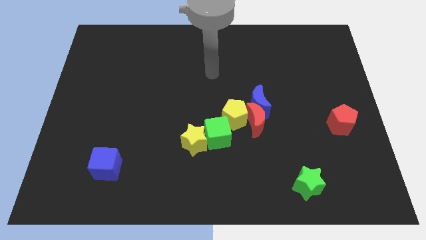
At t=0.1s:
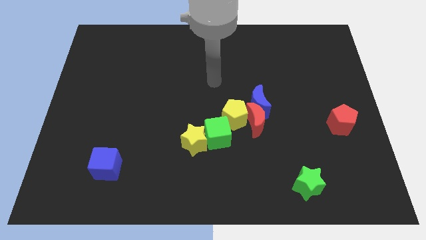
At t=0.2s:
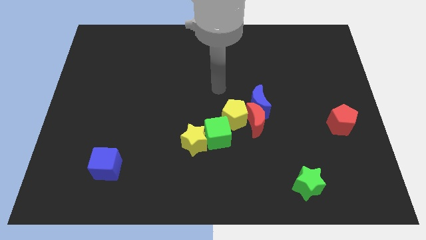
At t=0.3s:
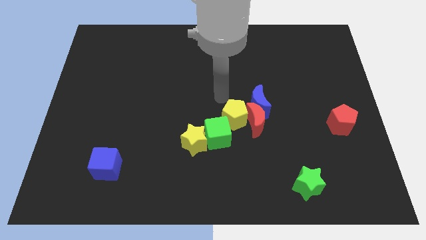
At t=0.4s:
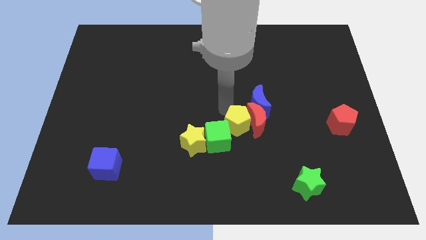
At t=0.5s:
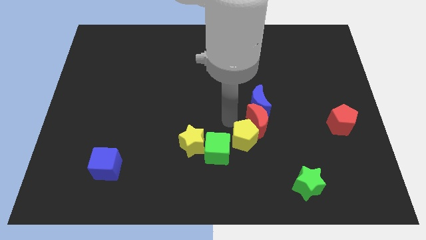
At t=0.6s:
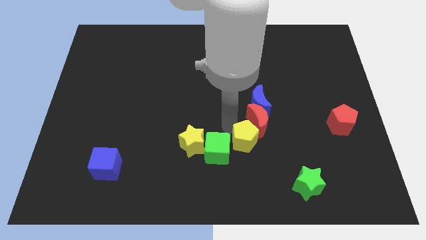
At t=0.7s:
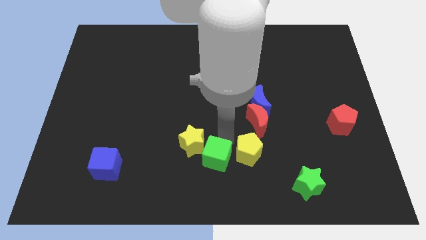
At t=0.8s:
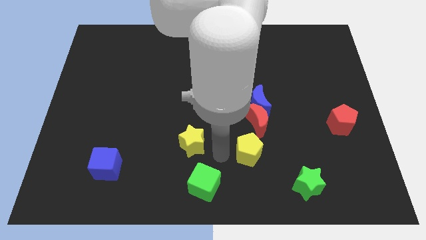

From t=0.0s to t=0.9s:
separate the yellow star from the green cube

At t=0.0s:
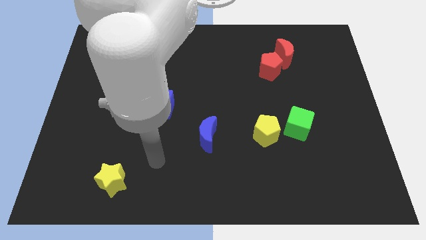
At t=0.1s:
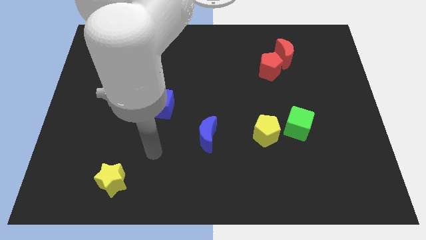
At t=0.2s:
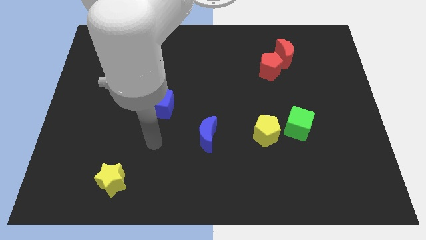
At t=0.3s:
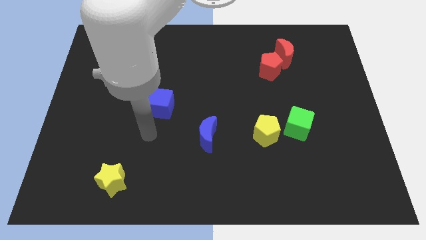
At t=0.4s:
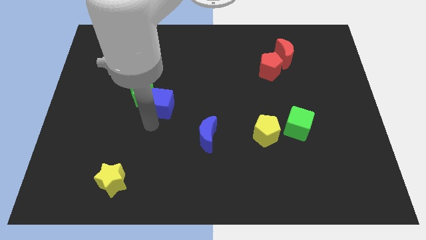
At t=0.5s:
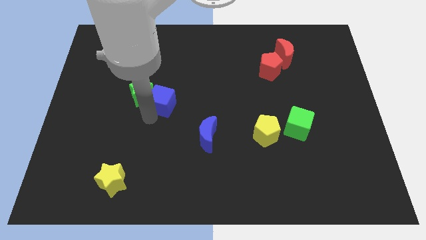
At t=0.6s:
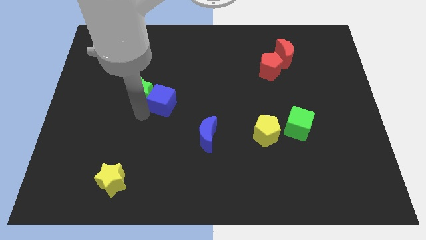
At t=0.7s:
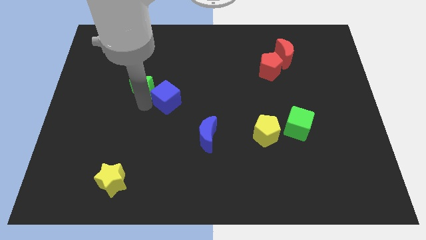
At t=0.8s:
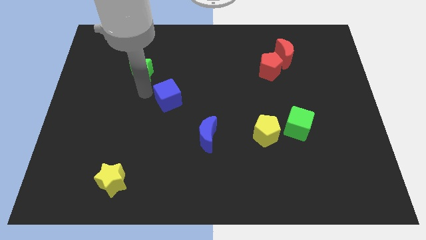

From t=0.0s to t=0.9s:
pull the blue cube apart from the green star

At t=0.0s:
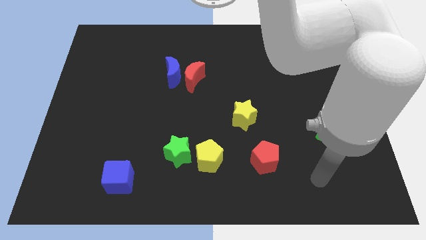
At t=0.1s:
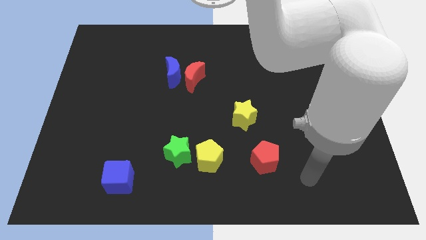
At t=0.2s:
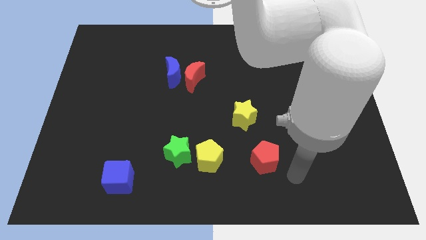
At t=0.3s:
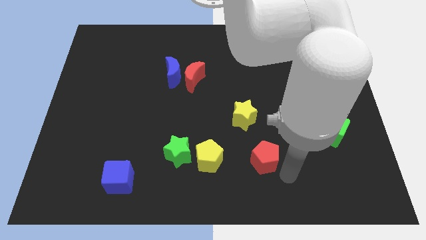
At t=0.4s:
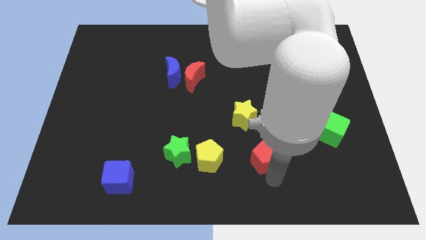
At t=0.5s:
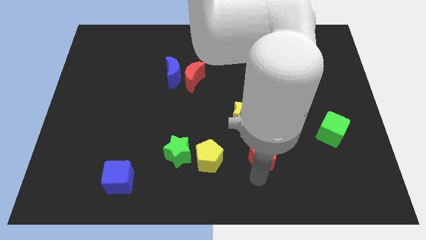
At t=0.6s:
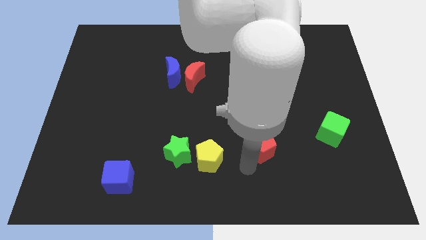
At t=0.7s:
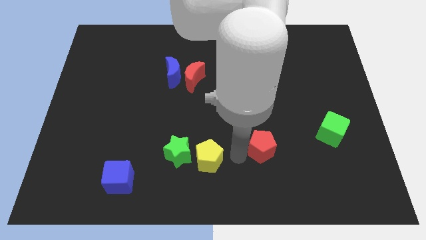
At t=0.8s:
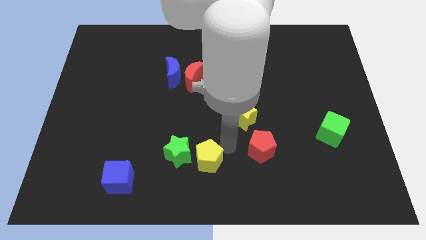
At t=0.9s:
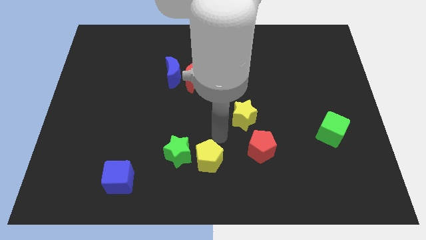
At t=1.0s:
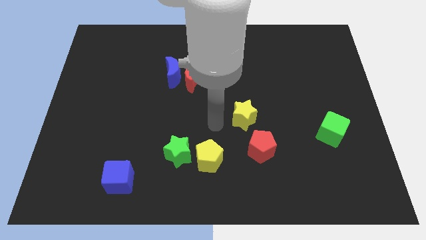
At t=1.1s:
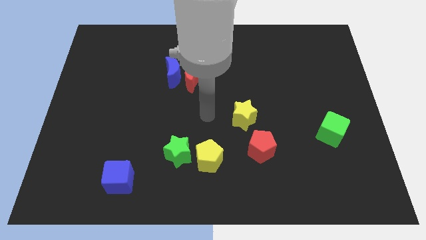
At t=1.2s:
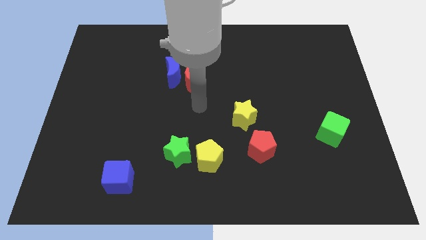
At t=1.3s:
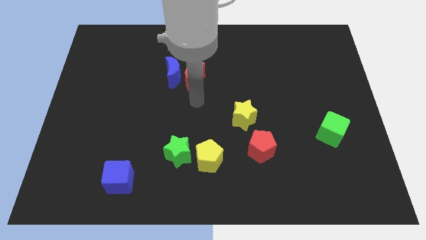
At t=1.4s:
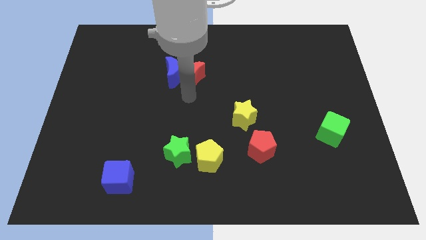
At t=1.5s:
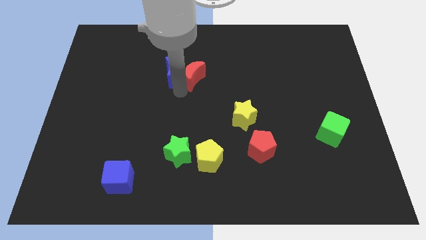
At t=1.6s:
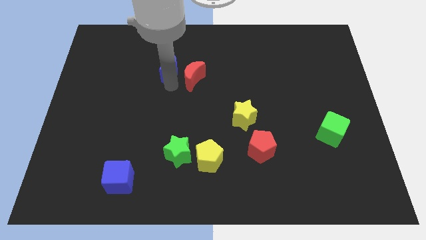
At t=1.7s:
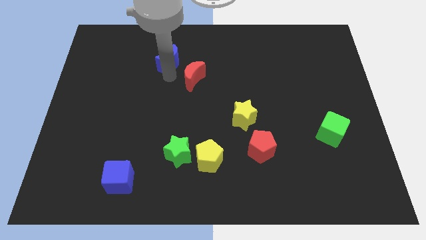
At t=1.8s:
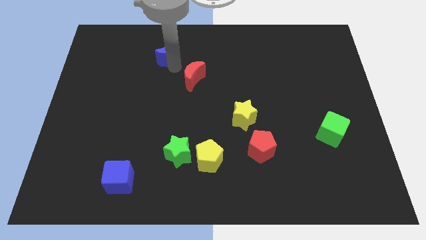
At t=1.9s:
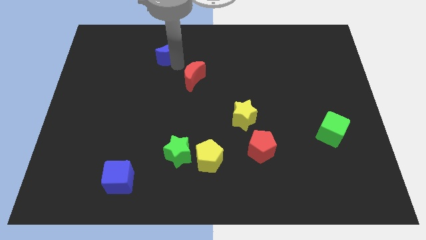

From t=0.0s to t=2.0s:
separate the red moon from the blue moon

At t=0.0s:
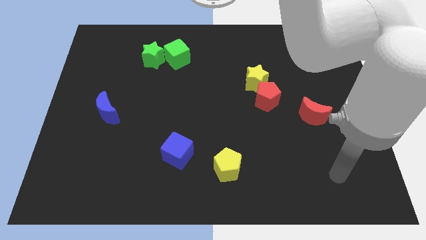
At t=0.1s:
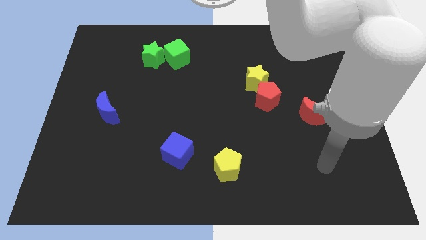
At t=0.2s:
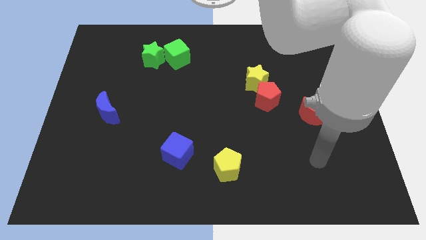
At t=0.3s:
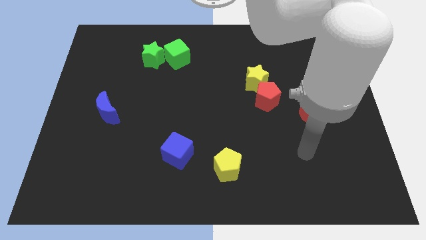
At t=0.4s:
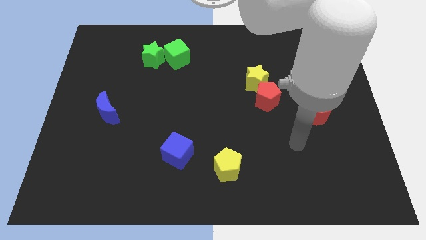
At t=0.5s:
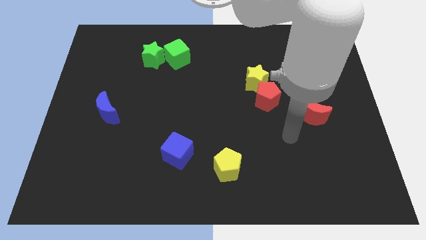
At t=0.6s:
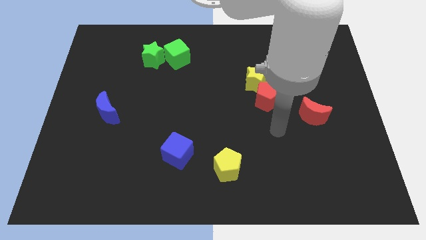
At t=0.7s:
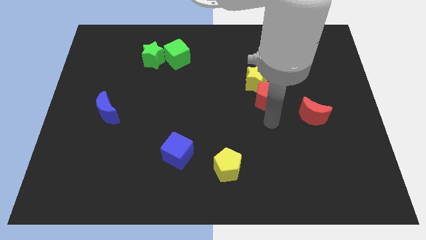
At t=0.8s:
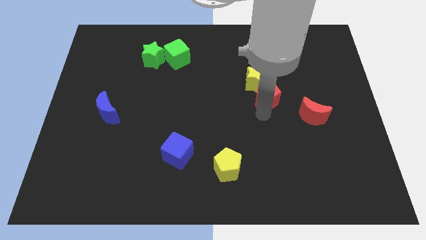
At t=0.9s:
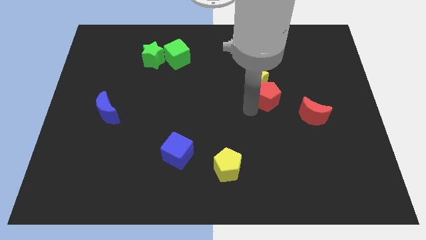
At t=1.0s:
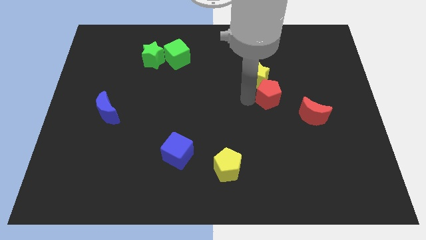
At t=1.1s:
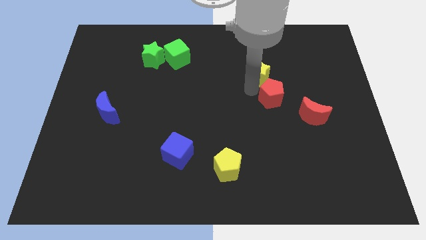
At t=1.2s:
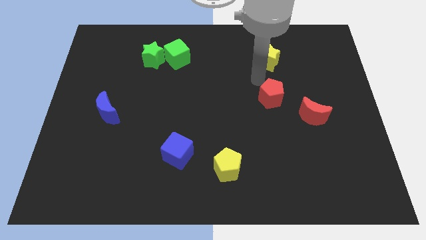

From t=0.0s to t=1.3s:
move the red pentagon away from the yellow star

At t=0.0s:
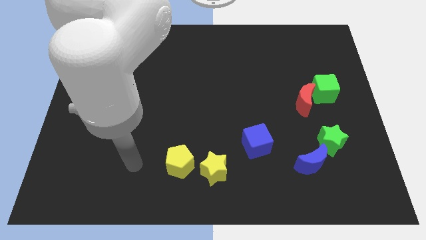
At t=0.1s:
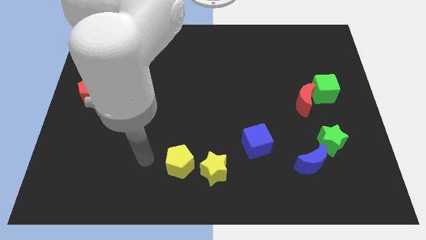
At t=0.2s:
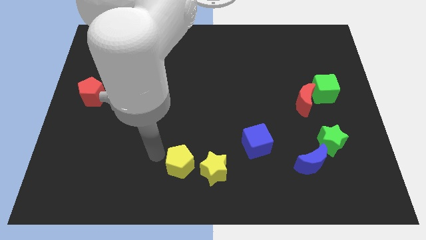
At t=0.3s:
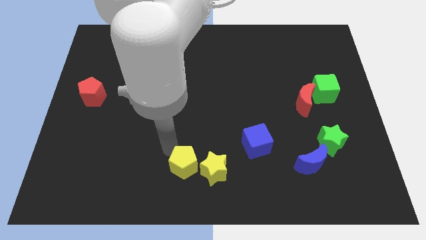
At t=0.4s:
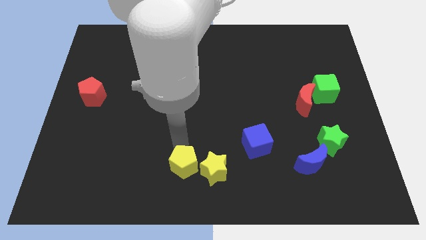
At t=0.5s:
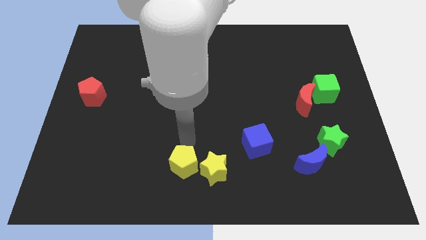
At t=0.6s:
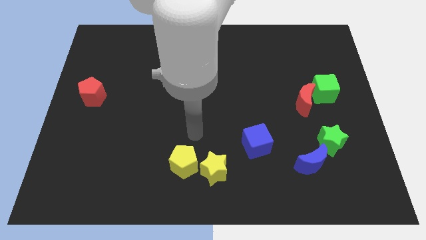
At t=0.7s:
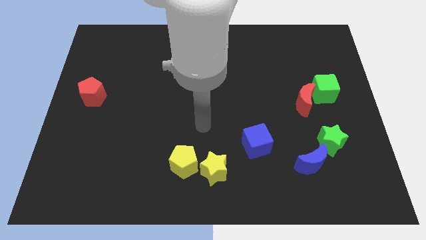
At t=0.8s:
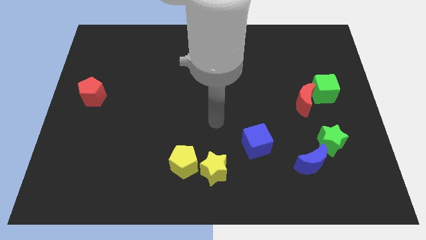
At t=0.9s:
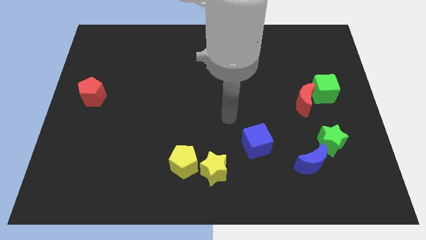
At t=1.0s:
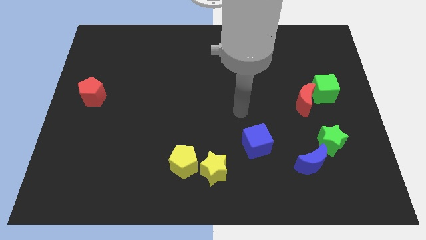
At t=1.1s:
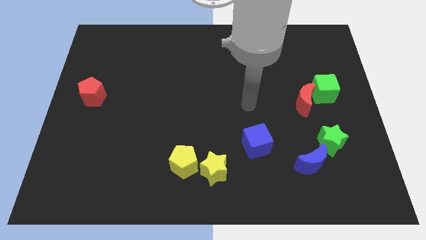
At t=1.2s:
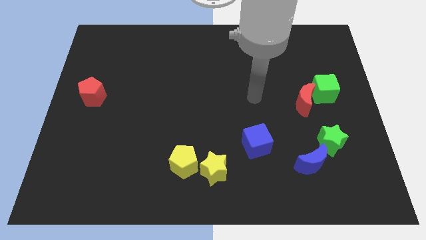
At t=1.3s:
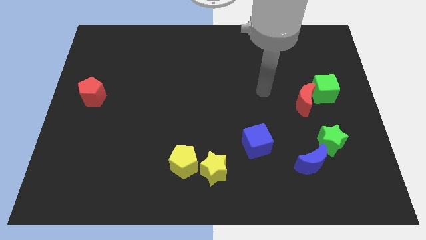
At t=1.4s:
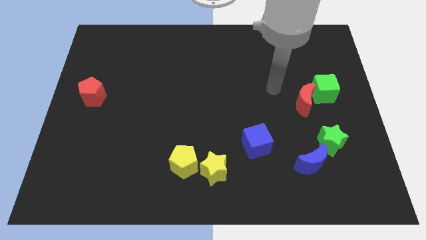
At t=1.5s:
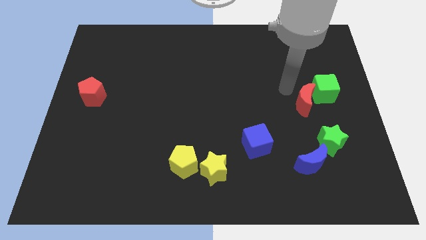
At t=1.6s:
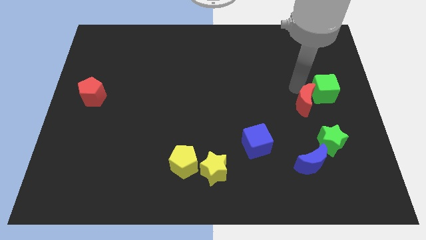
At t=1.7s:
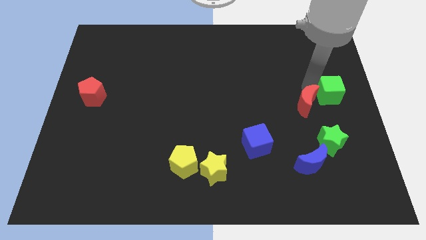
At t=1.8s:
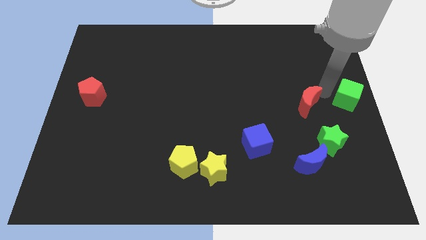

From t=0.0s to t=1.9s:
separate the red moon from the green cube

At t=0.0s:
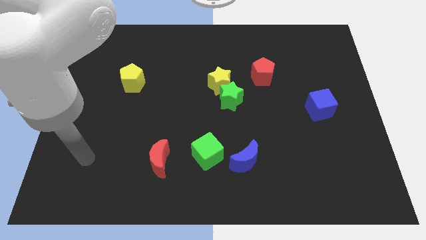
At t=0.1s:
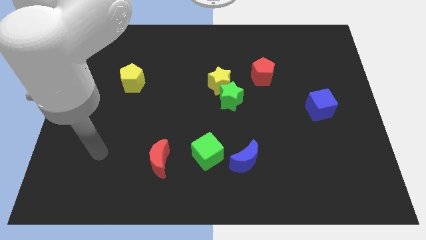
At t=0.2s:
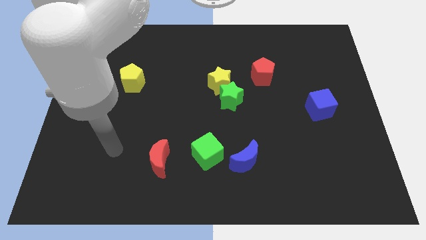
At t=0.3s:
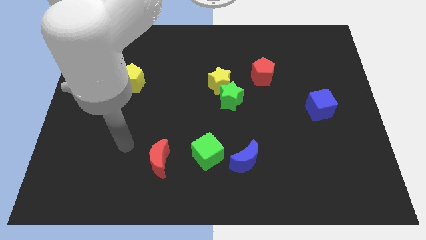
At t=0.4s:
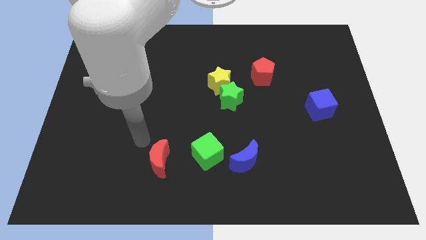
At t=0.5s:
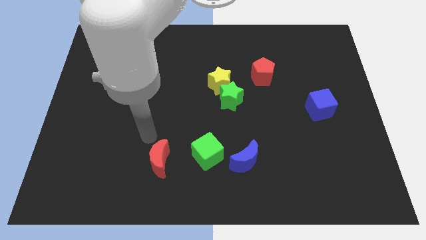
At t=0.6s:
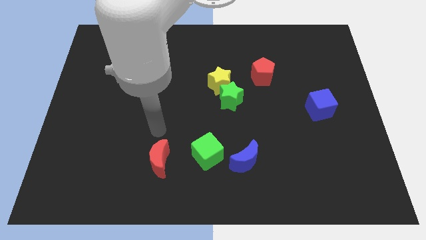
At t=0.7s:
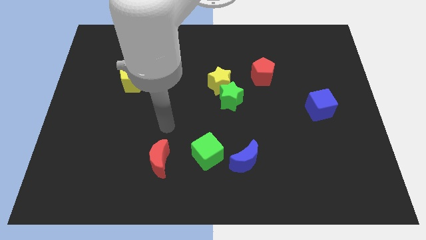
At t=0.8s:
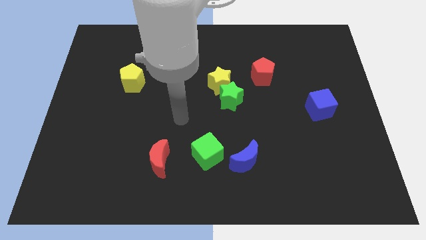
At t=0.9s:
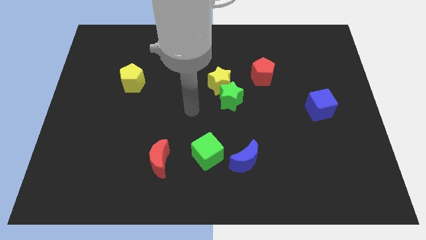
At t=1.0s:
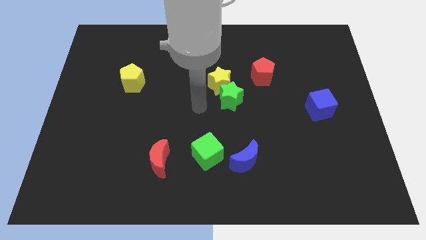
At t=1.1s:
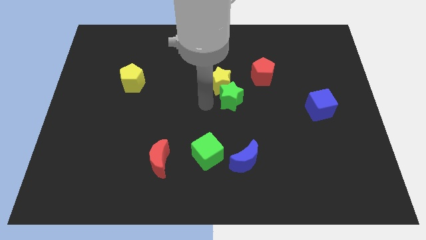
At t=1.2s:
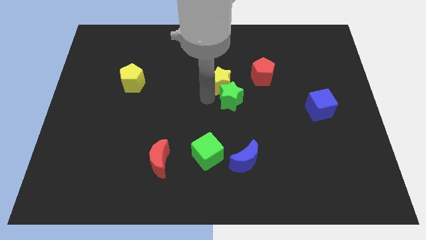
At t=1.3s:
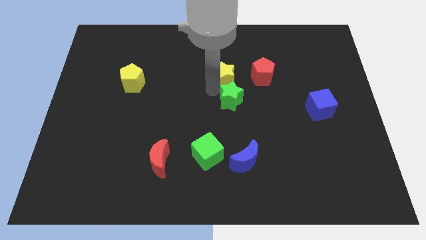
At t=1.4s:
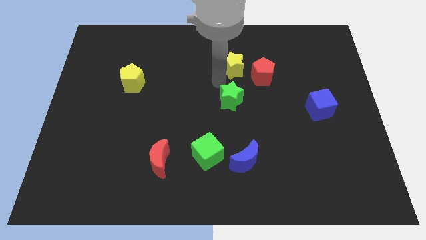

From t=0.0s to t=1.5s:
move the green star away from the yellow star

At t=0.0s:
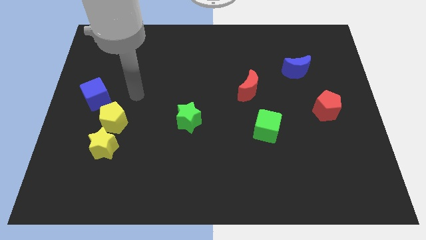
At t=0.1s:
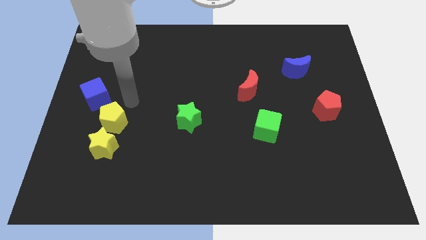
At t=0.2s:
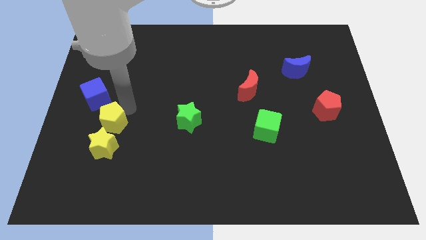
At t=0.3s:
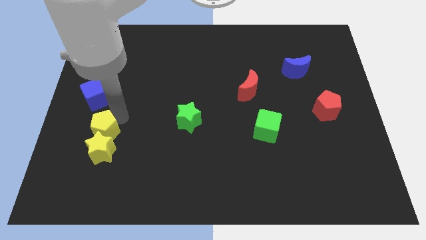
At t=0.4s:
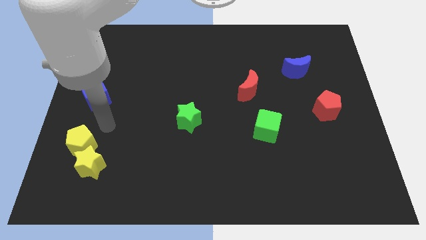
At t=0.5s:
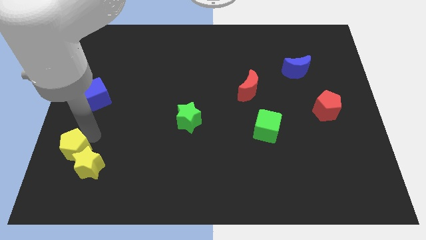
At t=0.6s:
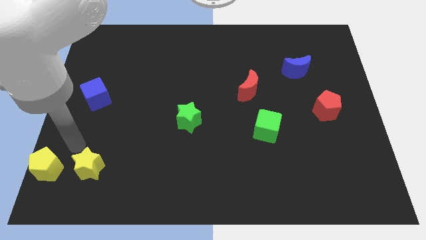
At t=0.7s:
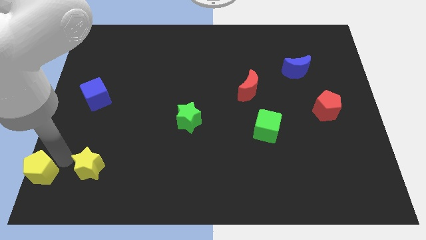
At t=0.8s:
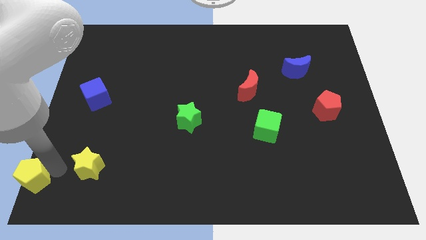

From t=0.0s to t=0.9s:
pull the yellow star apart from the yellow pentagon
